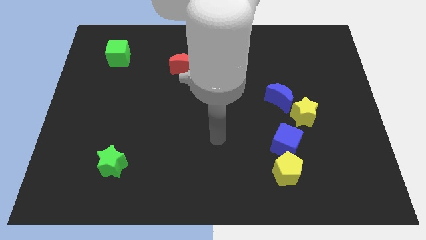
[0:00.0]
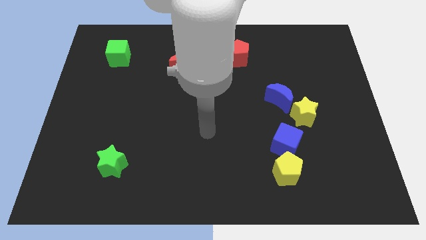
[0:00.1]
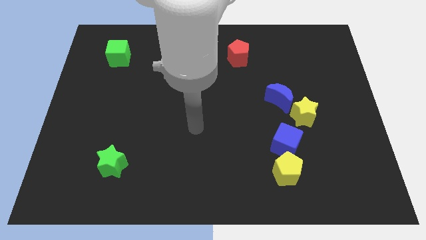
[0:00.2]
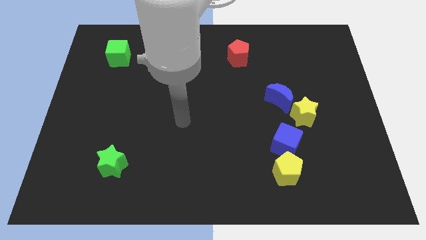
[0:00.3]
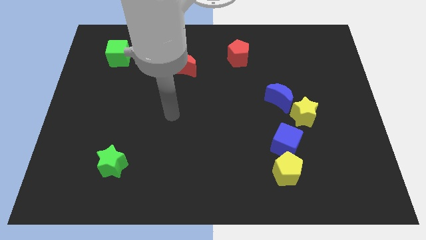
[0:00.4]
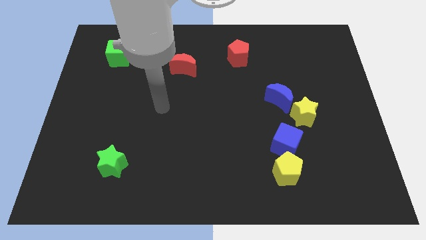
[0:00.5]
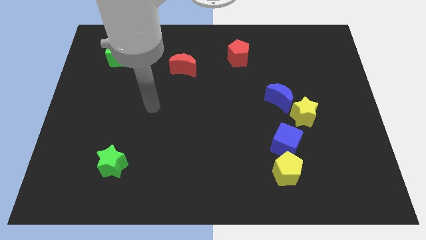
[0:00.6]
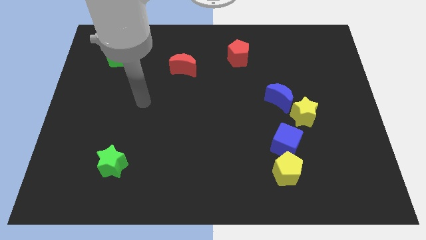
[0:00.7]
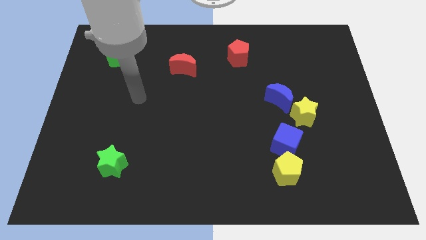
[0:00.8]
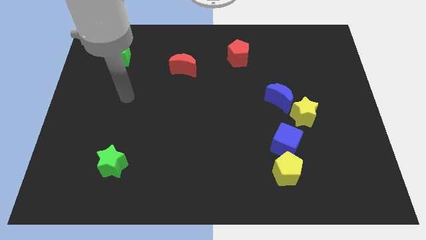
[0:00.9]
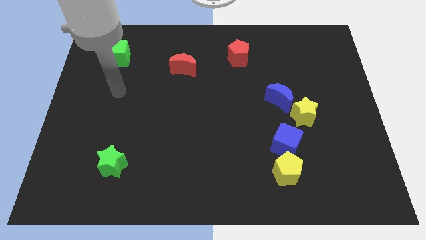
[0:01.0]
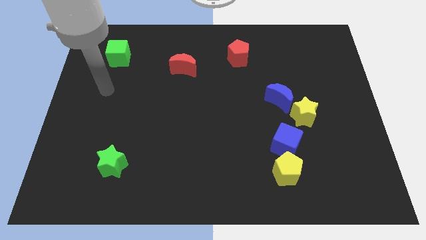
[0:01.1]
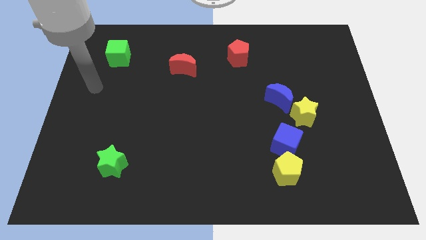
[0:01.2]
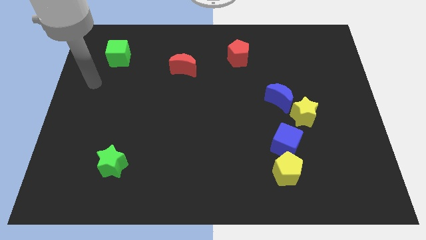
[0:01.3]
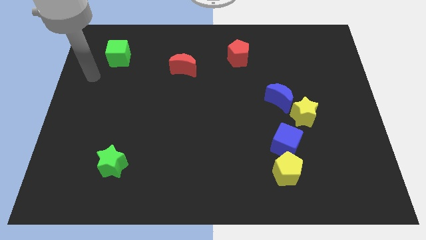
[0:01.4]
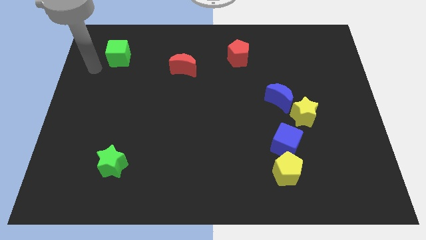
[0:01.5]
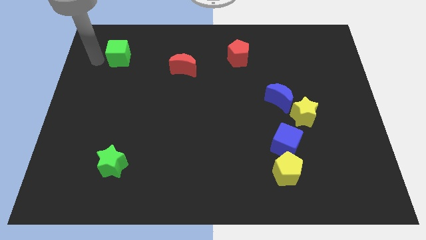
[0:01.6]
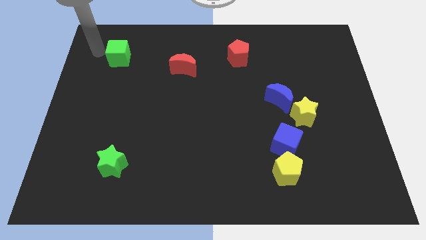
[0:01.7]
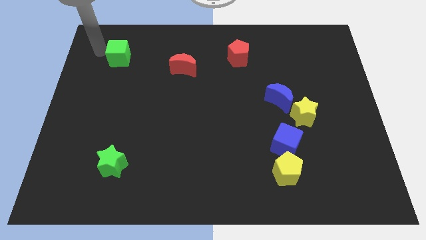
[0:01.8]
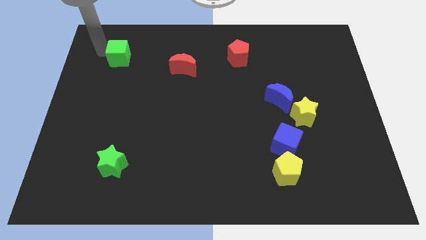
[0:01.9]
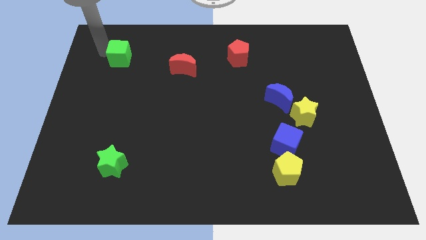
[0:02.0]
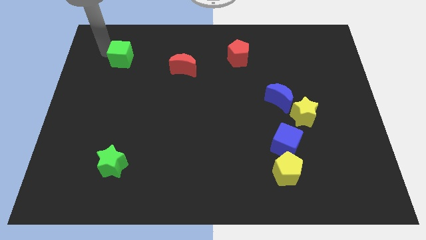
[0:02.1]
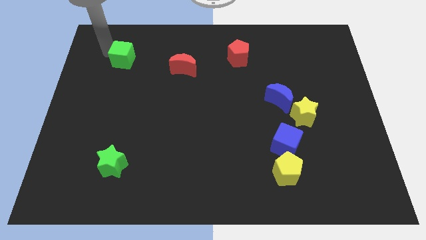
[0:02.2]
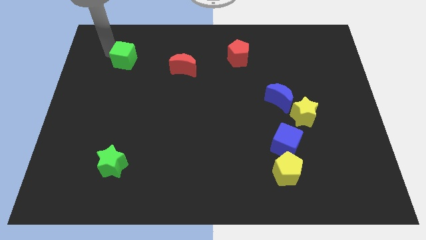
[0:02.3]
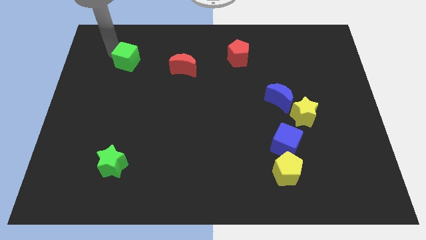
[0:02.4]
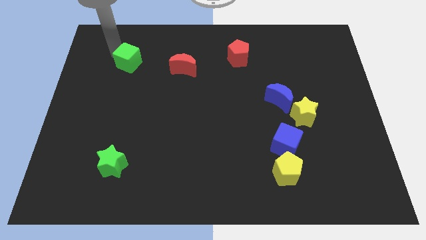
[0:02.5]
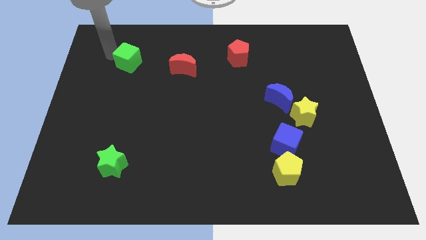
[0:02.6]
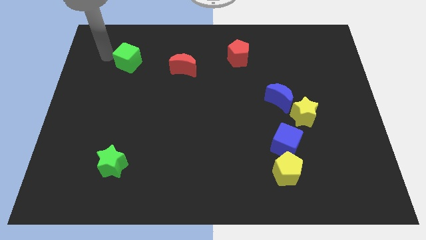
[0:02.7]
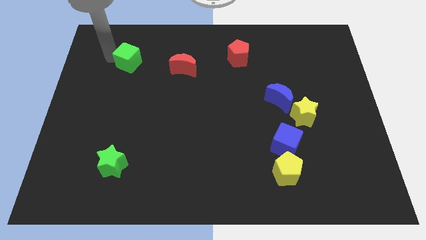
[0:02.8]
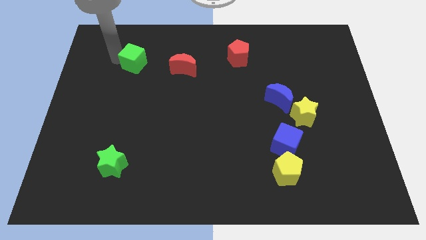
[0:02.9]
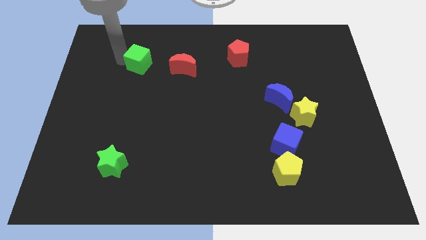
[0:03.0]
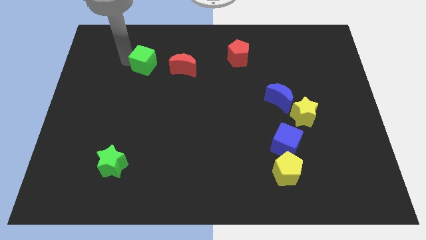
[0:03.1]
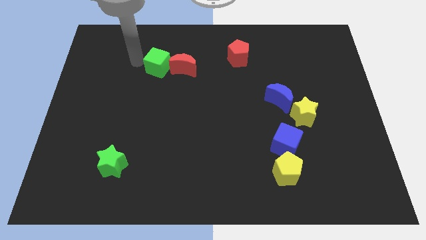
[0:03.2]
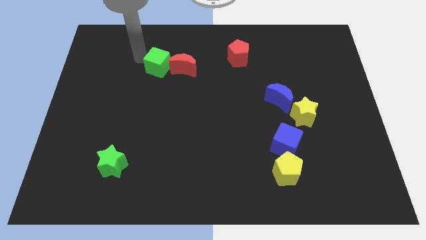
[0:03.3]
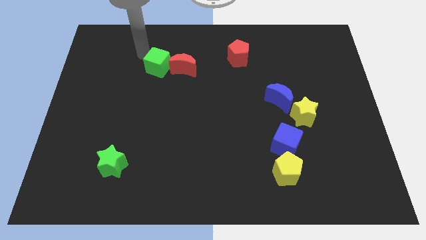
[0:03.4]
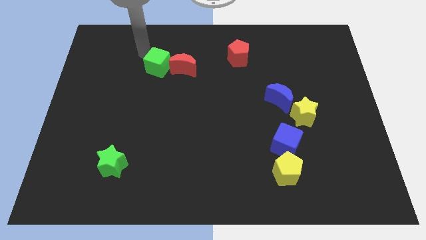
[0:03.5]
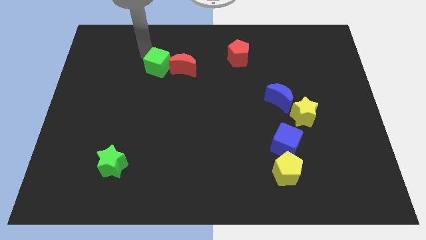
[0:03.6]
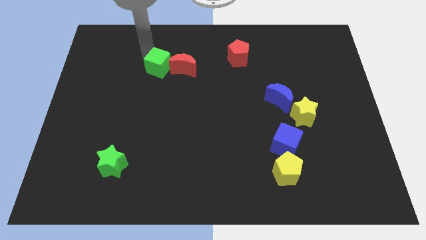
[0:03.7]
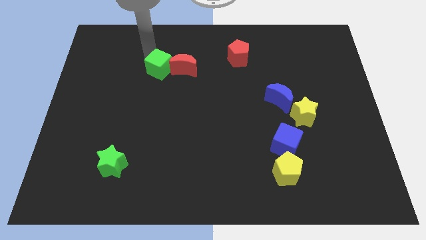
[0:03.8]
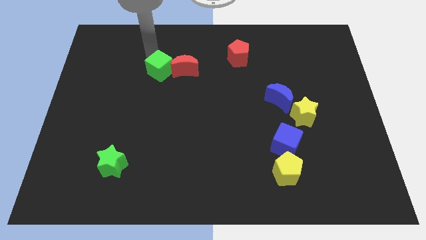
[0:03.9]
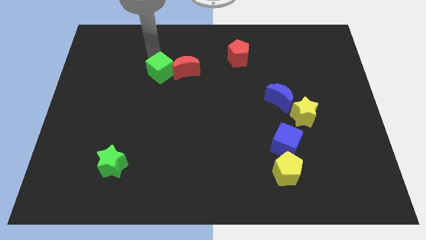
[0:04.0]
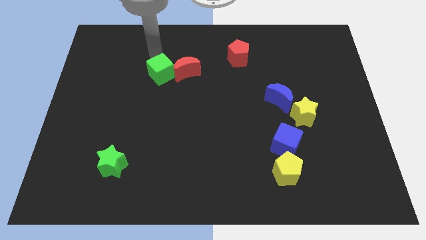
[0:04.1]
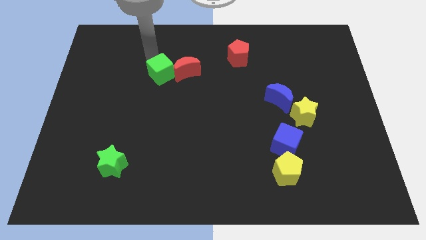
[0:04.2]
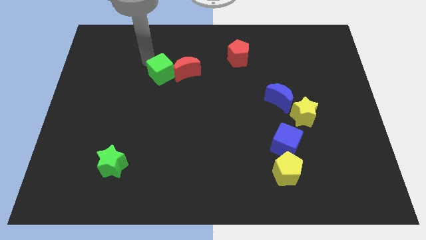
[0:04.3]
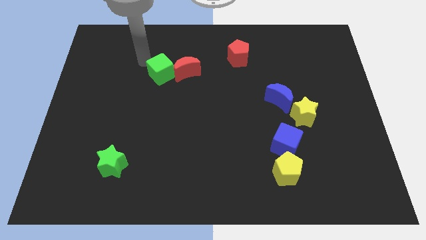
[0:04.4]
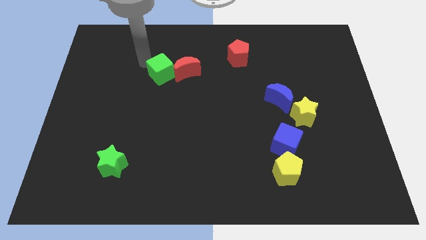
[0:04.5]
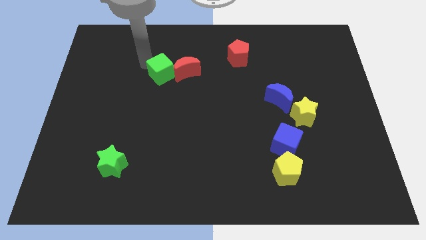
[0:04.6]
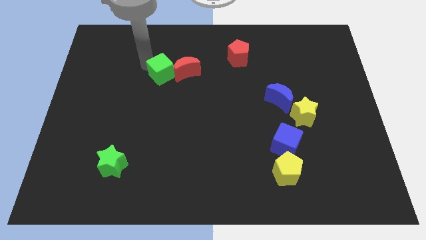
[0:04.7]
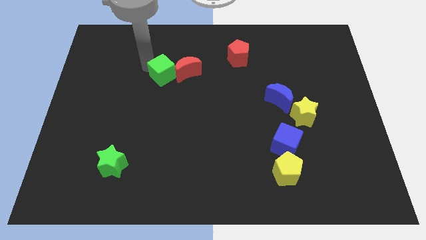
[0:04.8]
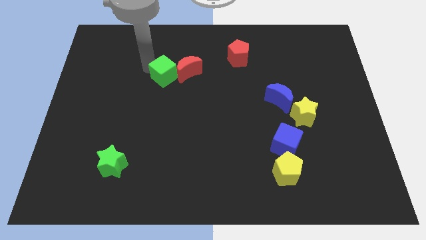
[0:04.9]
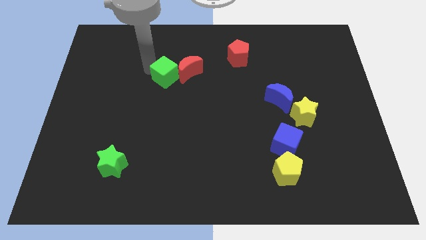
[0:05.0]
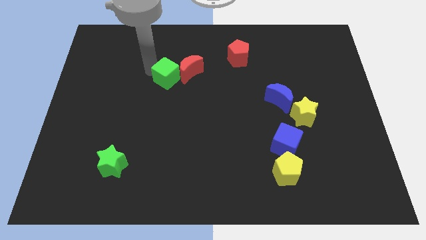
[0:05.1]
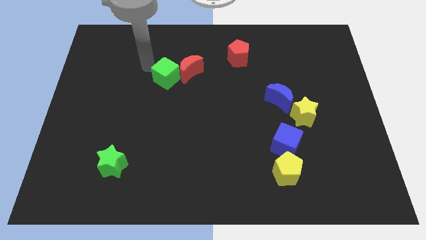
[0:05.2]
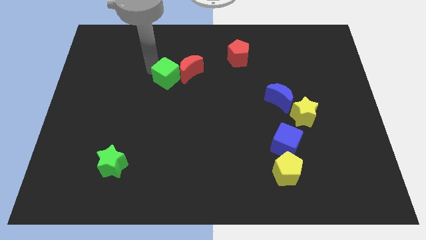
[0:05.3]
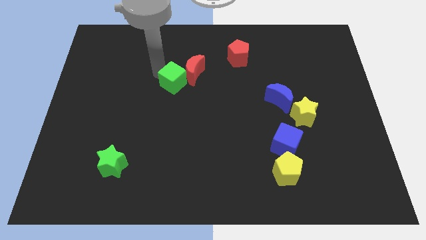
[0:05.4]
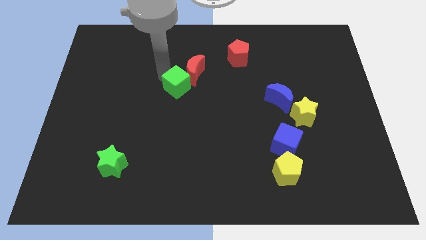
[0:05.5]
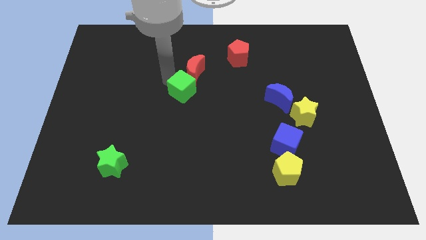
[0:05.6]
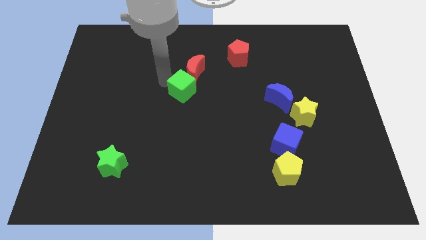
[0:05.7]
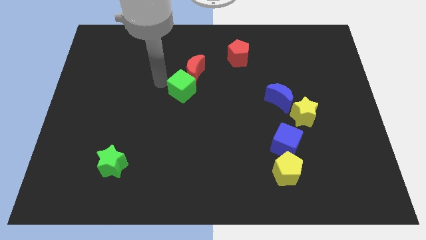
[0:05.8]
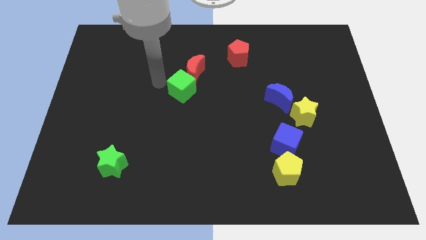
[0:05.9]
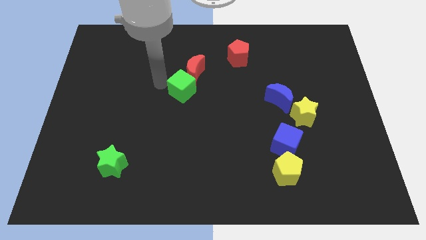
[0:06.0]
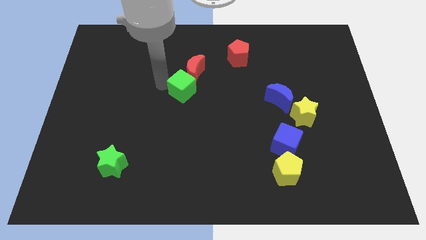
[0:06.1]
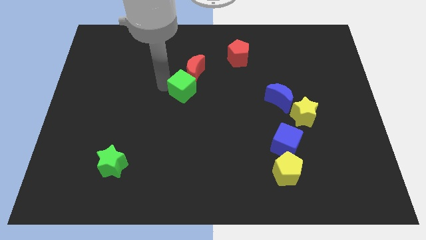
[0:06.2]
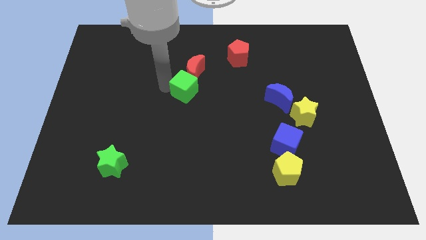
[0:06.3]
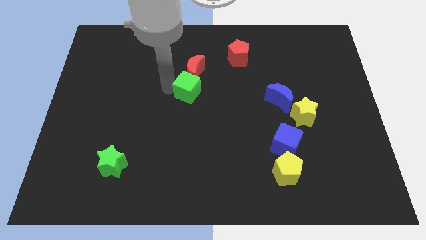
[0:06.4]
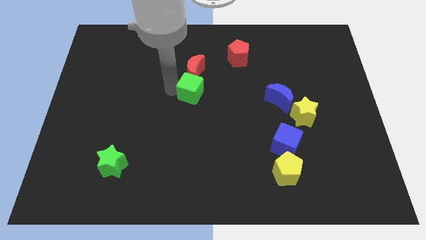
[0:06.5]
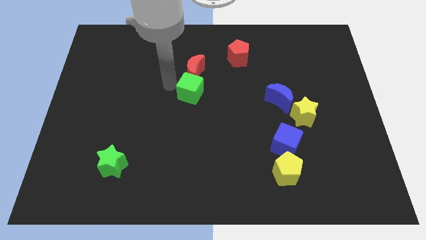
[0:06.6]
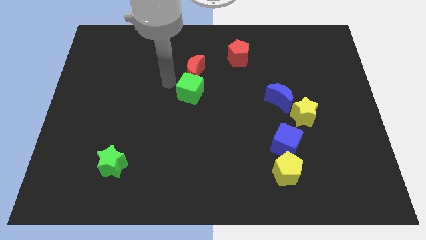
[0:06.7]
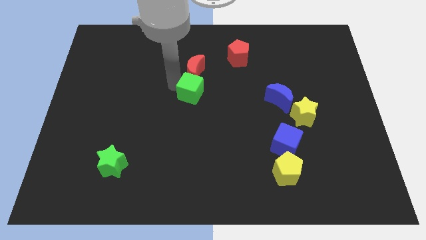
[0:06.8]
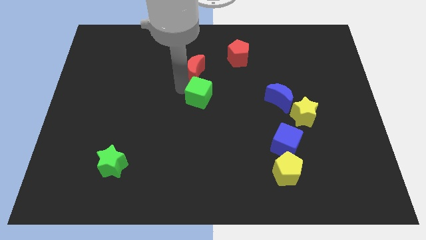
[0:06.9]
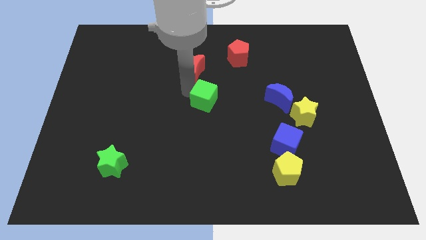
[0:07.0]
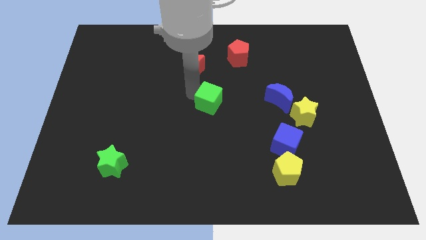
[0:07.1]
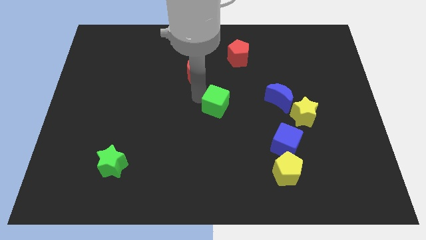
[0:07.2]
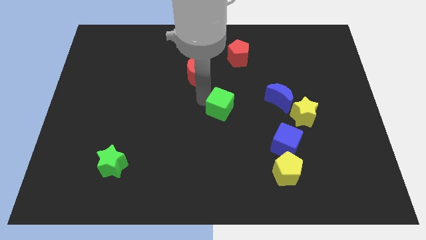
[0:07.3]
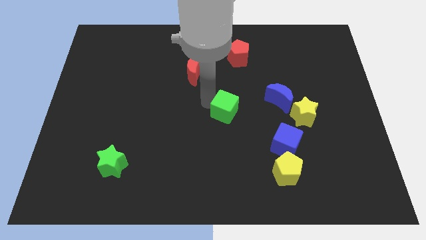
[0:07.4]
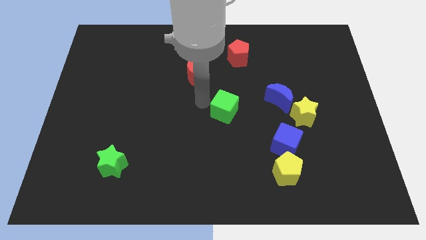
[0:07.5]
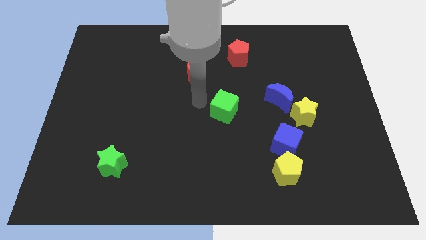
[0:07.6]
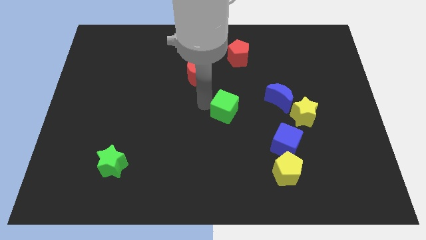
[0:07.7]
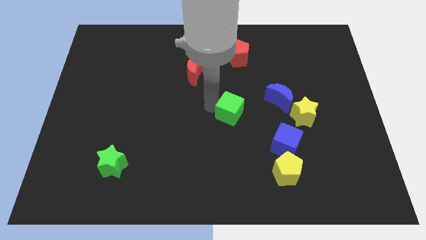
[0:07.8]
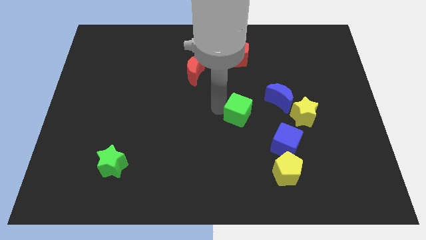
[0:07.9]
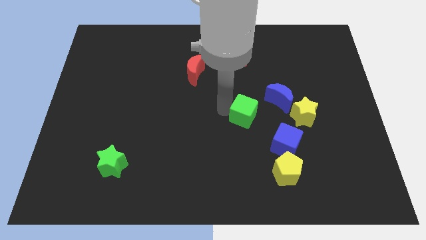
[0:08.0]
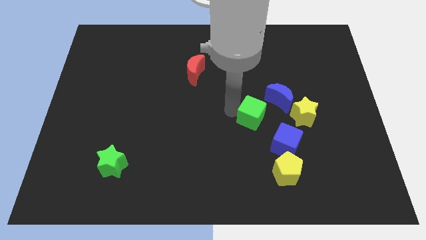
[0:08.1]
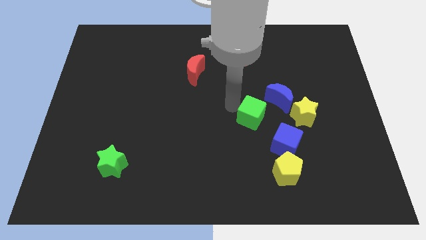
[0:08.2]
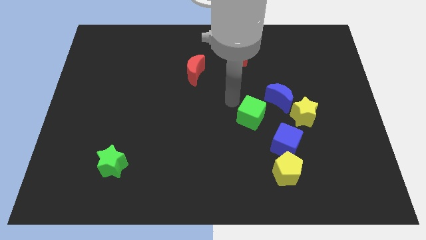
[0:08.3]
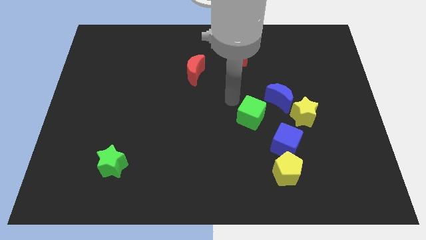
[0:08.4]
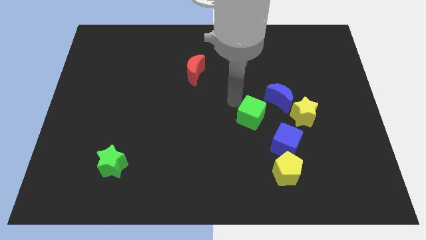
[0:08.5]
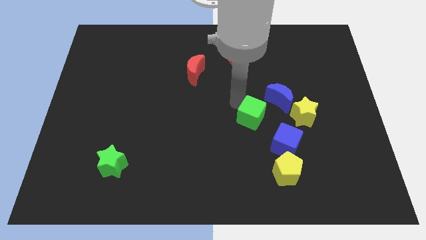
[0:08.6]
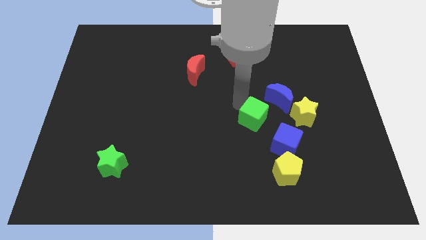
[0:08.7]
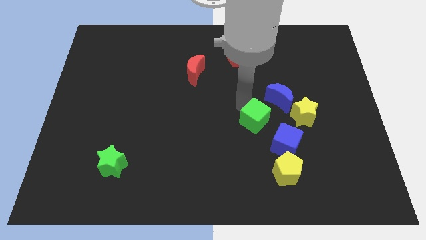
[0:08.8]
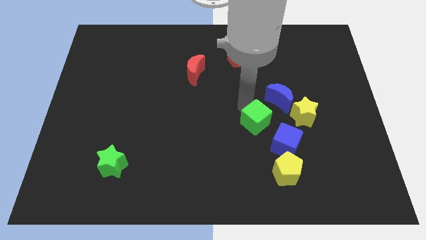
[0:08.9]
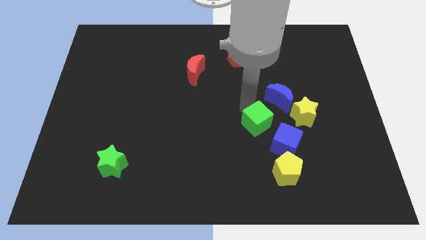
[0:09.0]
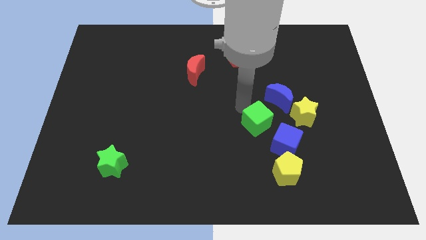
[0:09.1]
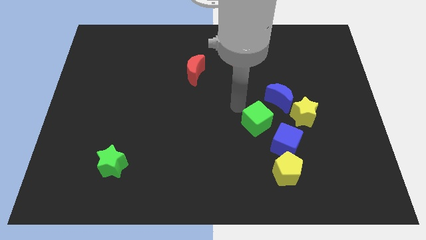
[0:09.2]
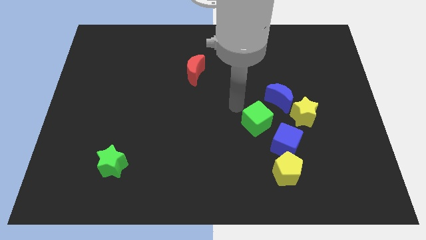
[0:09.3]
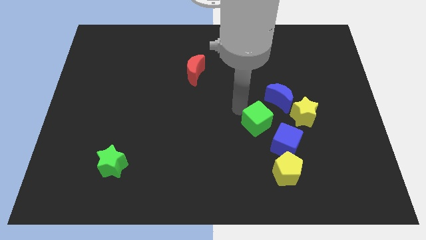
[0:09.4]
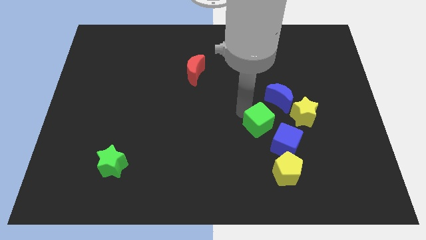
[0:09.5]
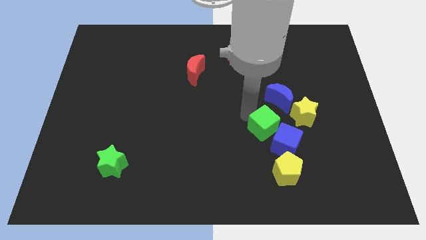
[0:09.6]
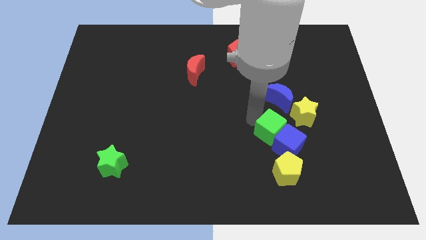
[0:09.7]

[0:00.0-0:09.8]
slide the green cube next to the blue cube
